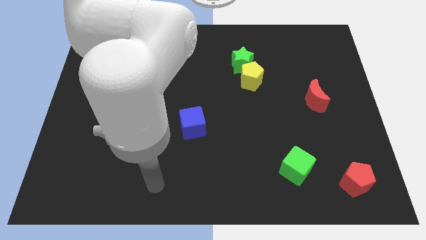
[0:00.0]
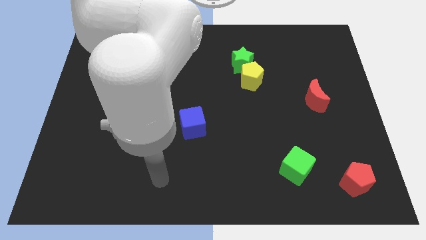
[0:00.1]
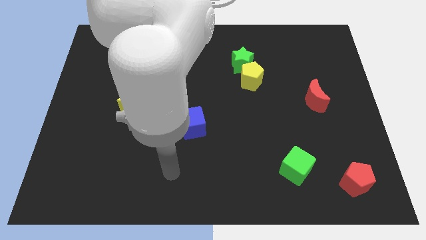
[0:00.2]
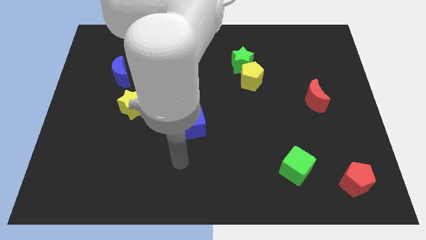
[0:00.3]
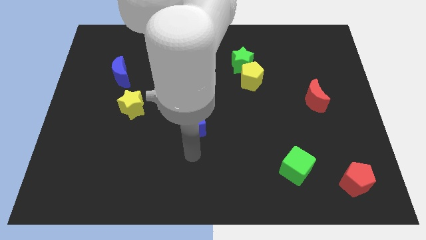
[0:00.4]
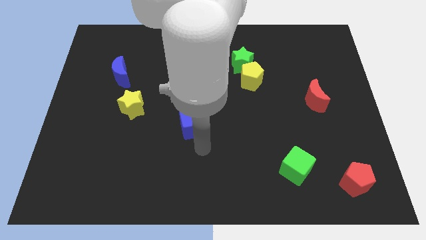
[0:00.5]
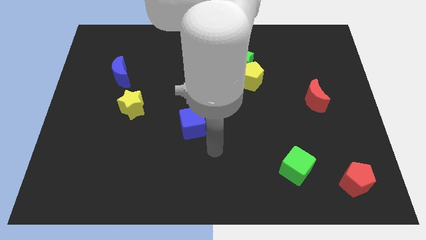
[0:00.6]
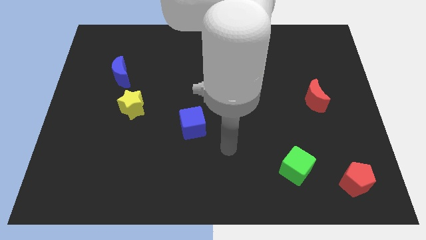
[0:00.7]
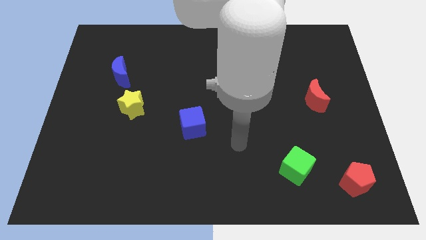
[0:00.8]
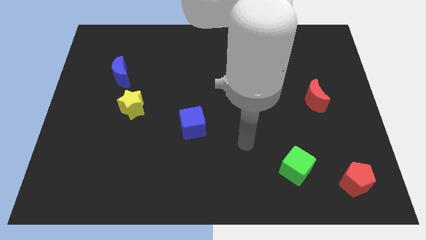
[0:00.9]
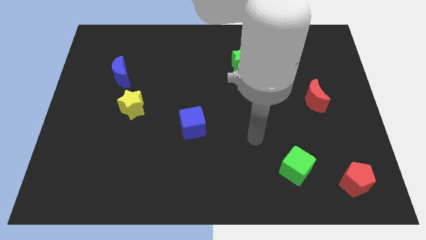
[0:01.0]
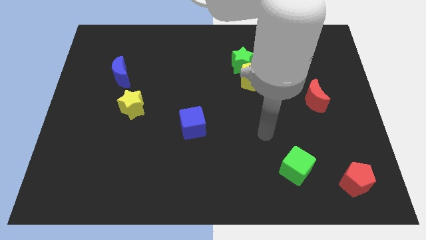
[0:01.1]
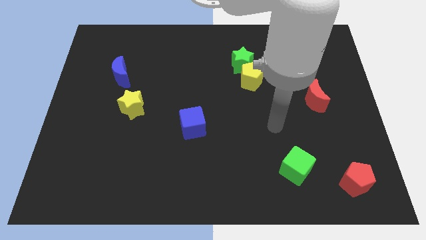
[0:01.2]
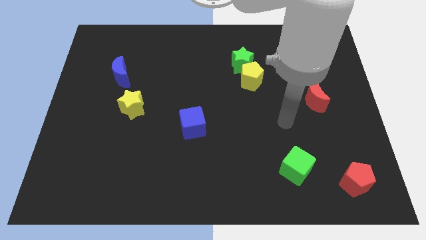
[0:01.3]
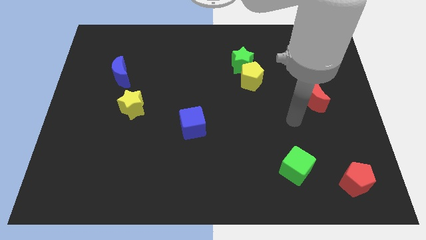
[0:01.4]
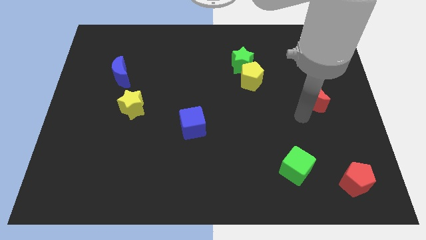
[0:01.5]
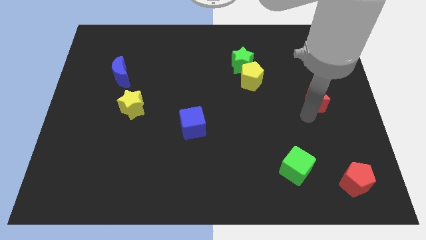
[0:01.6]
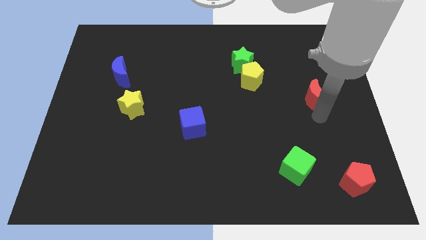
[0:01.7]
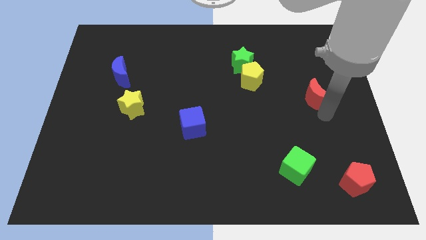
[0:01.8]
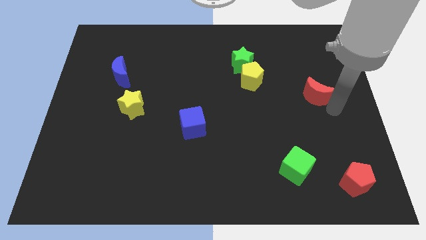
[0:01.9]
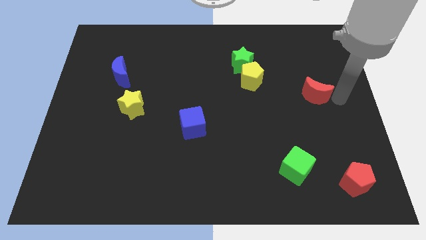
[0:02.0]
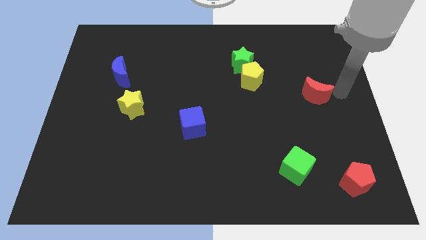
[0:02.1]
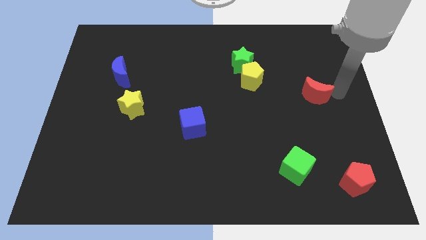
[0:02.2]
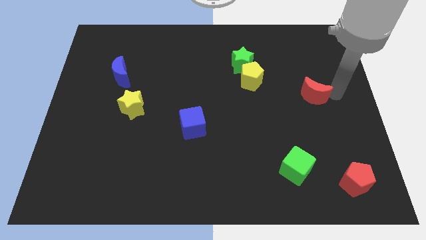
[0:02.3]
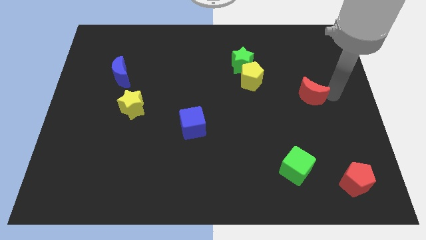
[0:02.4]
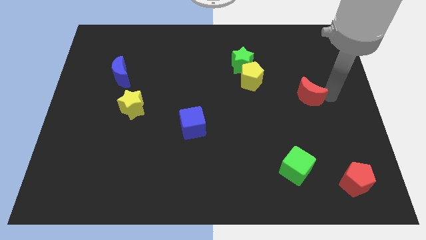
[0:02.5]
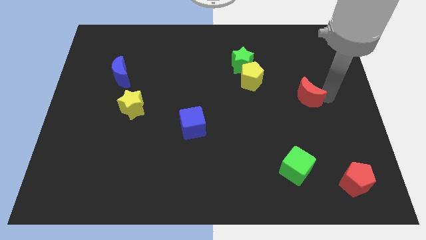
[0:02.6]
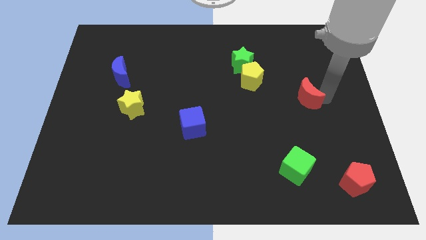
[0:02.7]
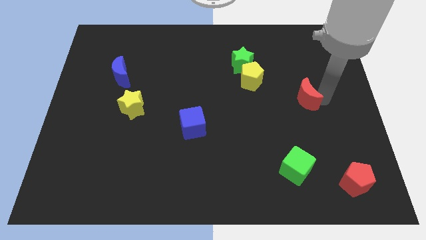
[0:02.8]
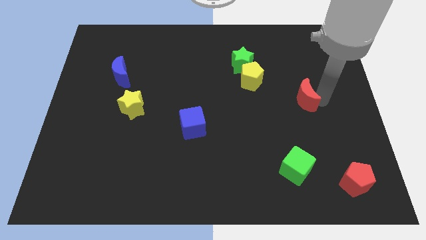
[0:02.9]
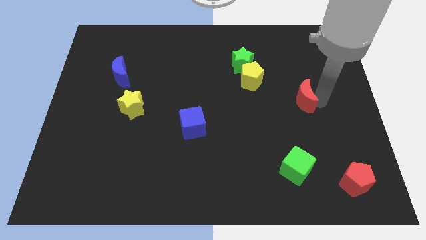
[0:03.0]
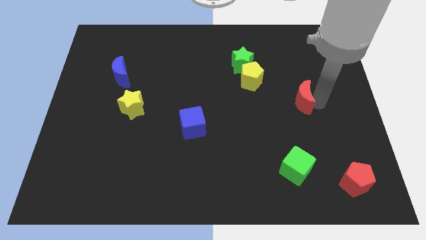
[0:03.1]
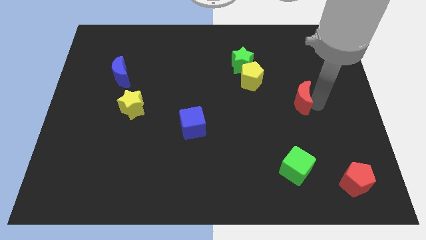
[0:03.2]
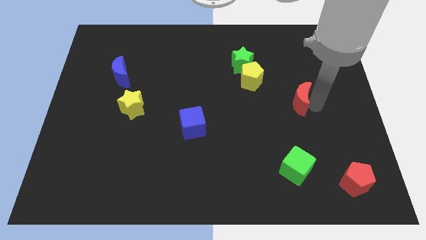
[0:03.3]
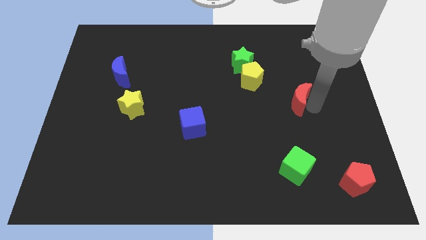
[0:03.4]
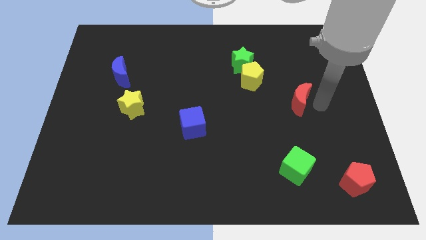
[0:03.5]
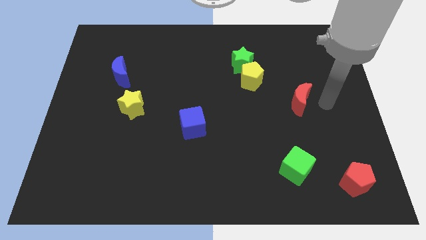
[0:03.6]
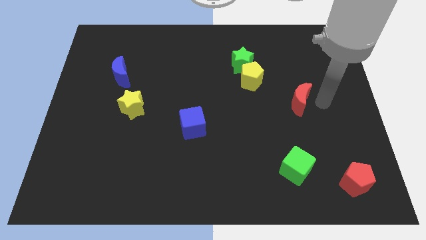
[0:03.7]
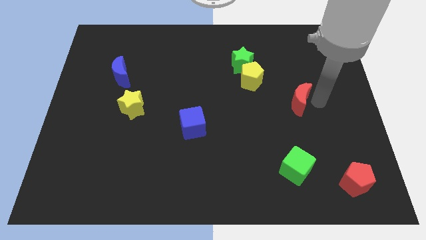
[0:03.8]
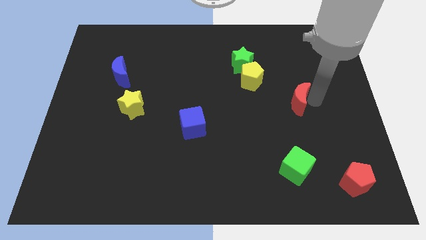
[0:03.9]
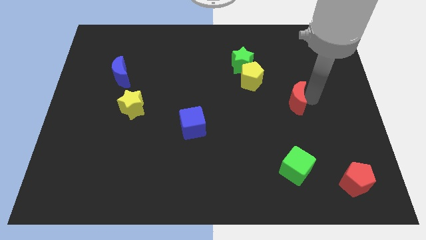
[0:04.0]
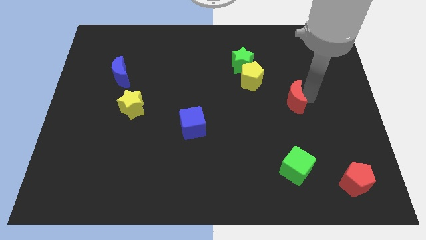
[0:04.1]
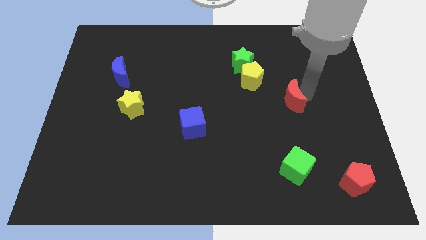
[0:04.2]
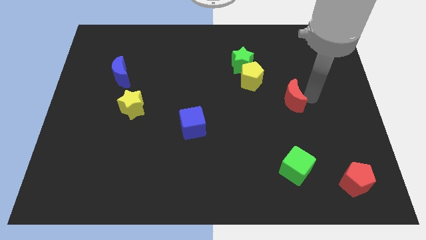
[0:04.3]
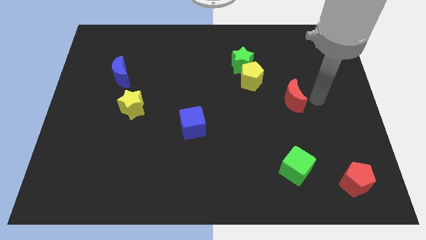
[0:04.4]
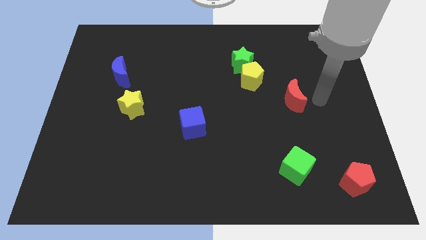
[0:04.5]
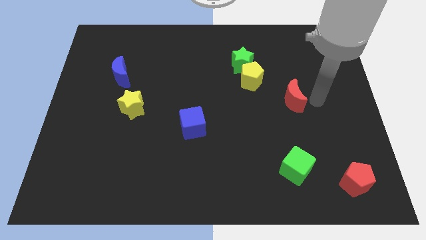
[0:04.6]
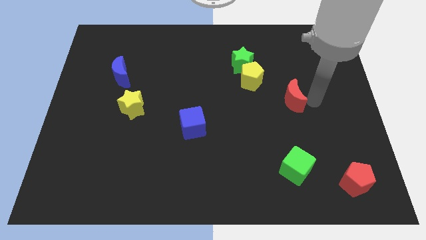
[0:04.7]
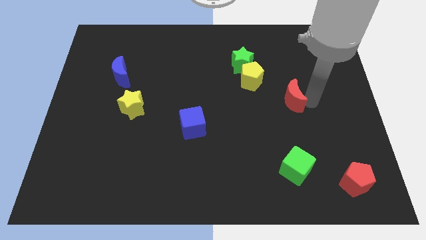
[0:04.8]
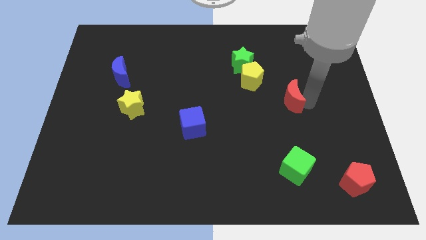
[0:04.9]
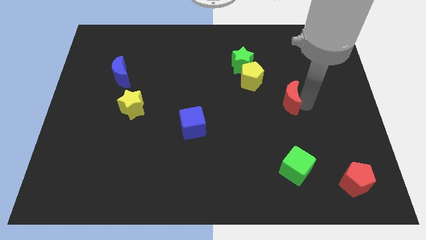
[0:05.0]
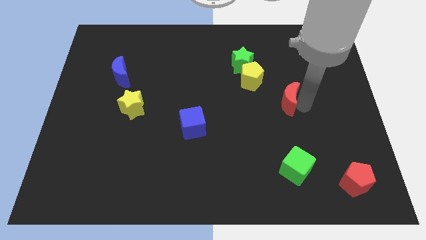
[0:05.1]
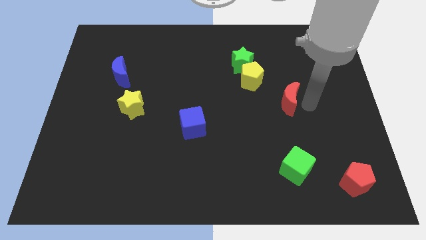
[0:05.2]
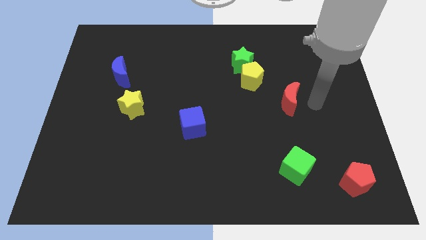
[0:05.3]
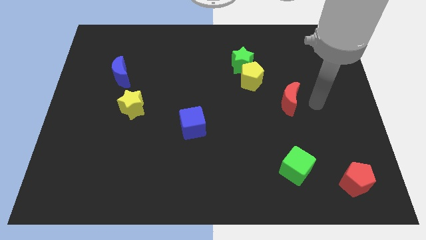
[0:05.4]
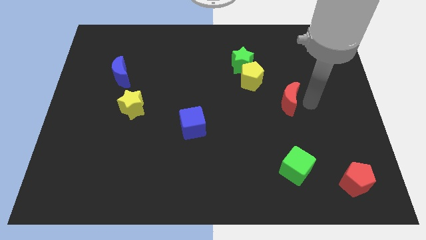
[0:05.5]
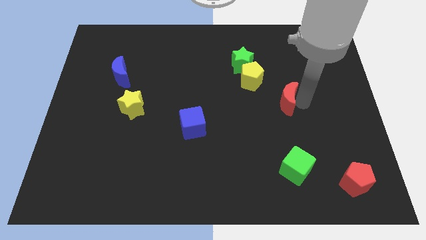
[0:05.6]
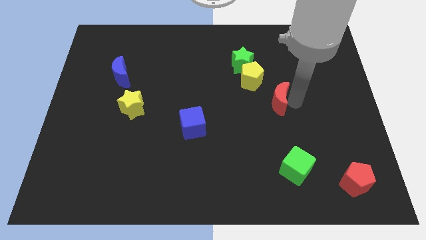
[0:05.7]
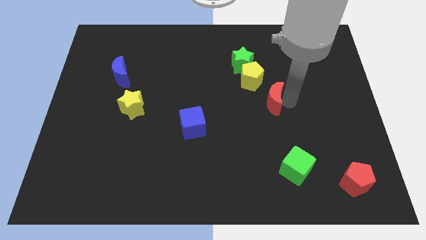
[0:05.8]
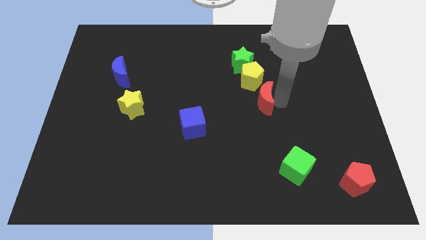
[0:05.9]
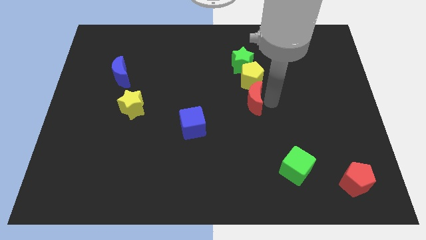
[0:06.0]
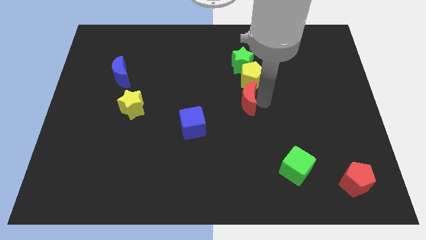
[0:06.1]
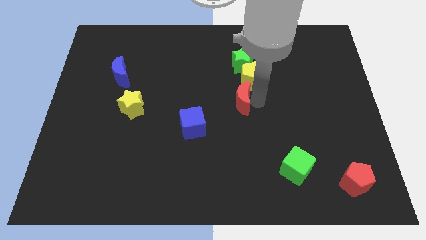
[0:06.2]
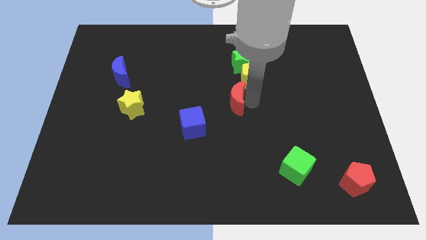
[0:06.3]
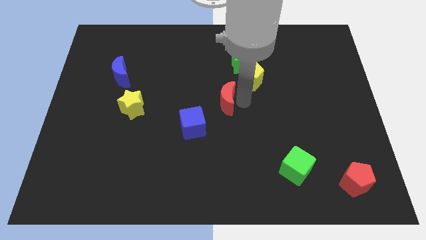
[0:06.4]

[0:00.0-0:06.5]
push the red moon left

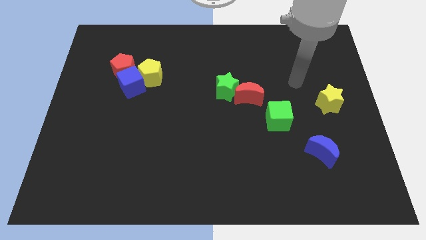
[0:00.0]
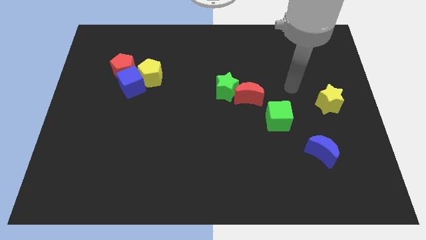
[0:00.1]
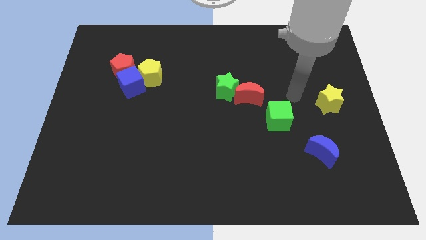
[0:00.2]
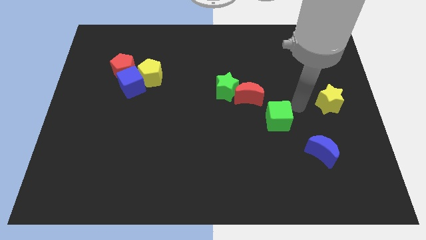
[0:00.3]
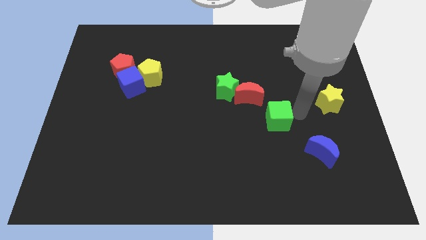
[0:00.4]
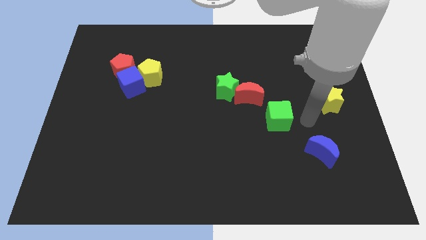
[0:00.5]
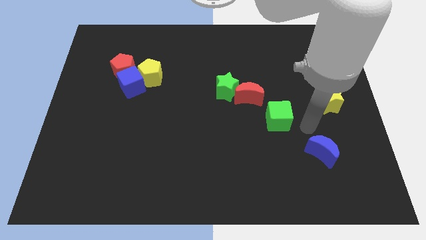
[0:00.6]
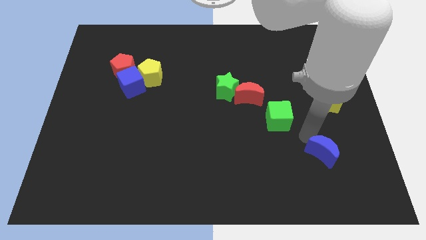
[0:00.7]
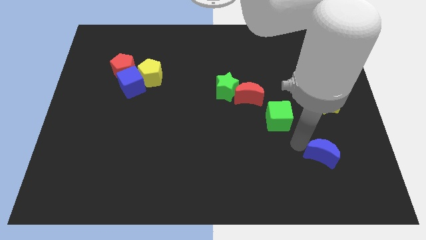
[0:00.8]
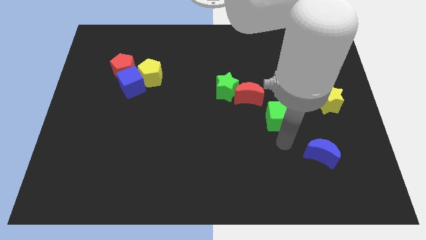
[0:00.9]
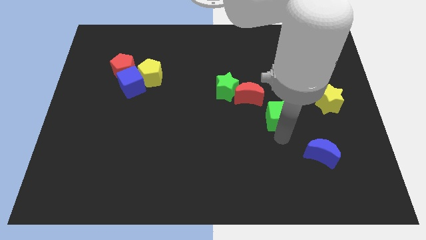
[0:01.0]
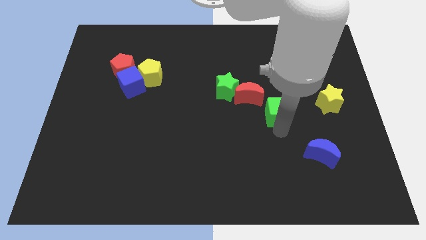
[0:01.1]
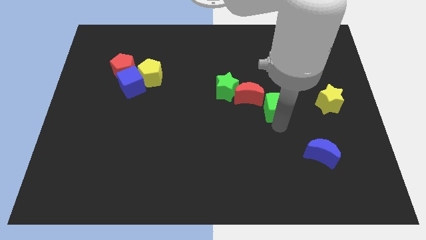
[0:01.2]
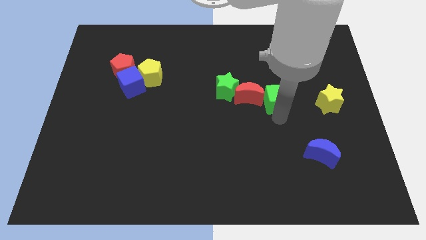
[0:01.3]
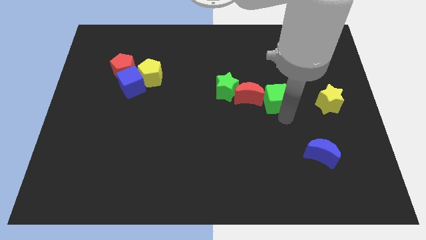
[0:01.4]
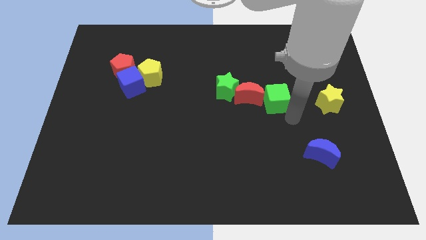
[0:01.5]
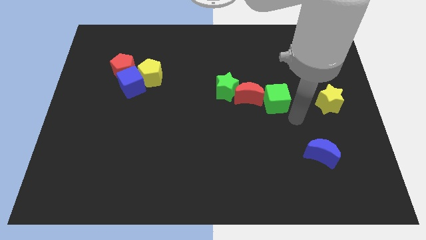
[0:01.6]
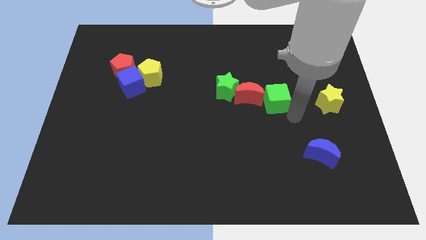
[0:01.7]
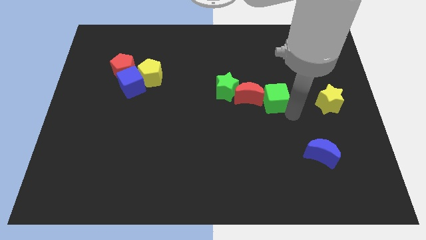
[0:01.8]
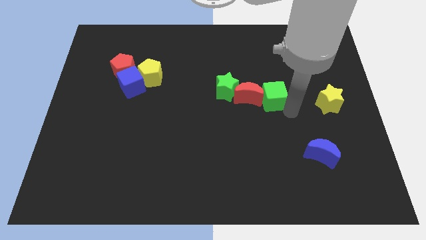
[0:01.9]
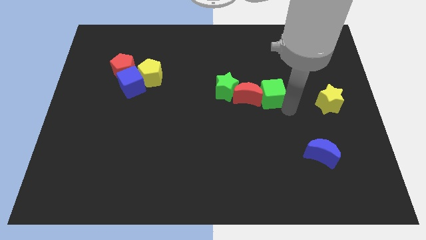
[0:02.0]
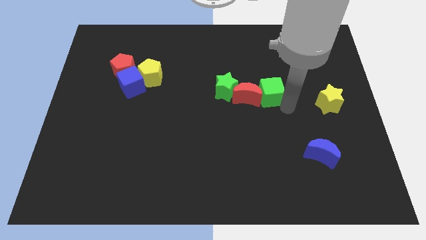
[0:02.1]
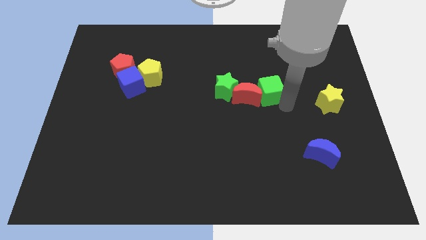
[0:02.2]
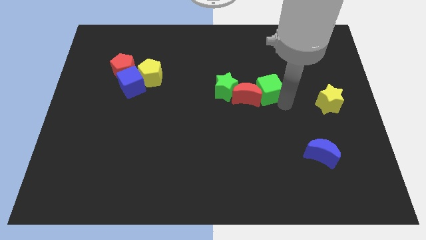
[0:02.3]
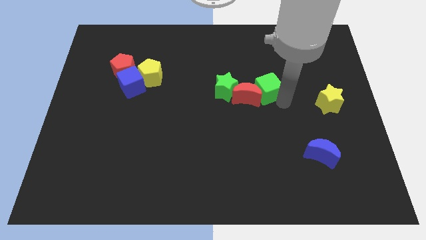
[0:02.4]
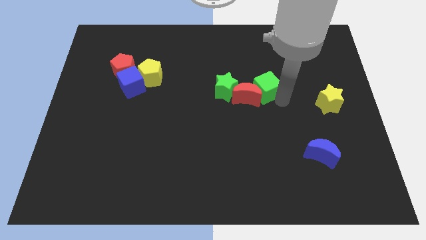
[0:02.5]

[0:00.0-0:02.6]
slide the green cube slightly up and then to the left
